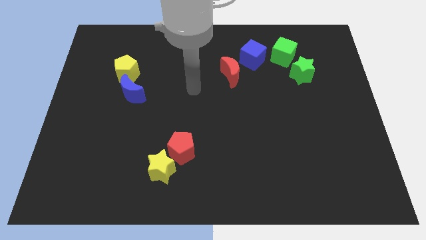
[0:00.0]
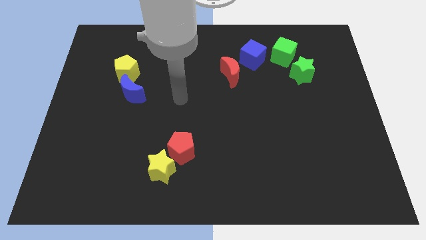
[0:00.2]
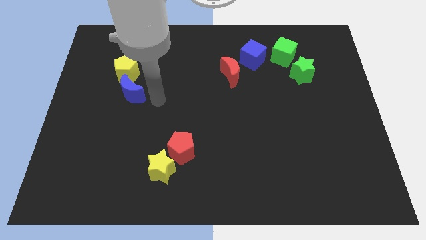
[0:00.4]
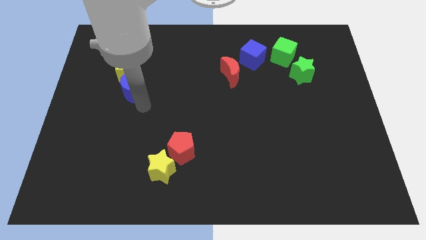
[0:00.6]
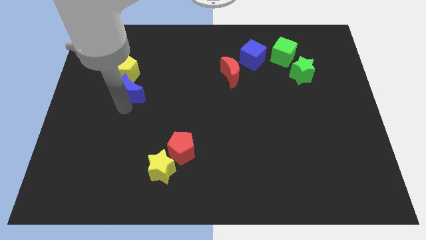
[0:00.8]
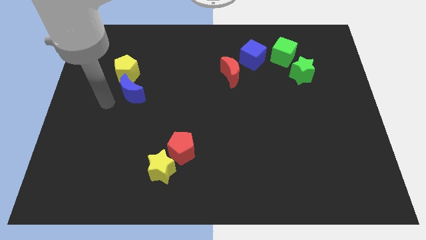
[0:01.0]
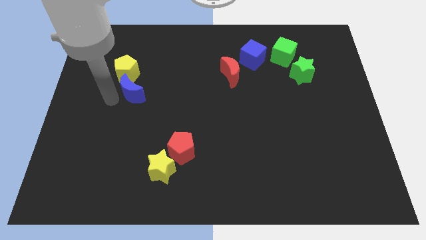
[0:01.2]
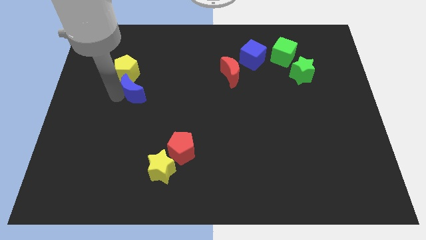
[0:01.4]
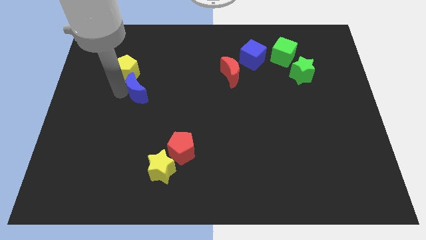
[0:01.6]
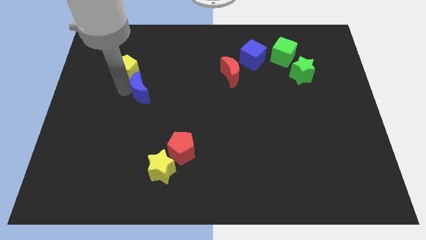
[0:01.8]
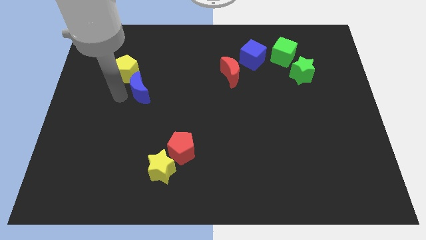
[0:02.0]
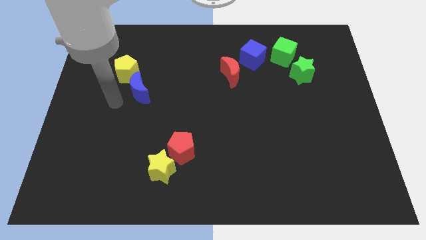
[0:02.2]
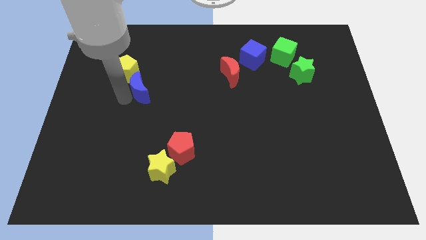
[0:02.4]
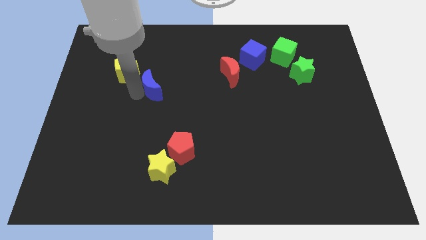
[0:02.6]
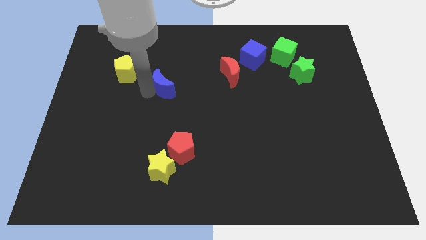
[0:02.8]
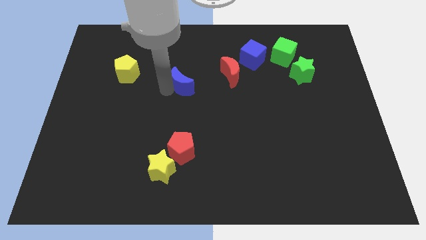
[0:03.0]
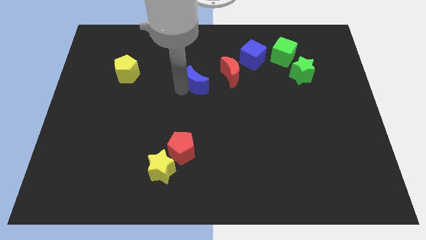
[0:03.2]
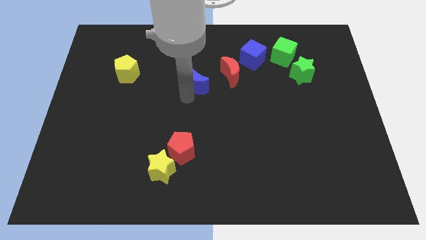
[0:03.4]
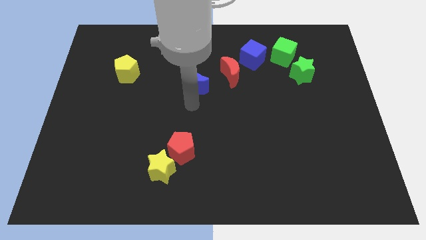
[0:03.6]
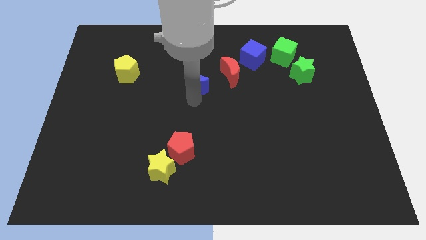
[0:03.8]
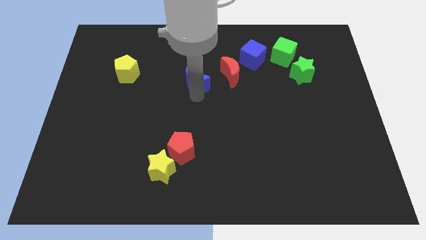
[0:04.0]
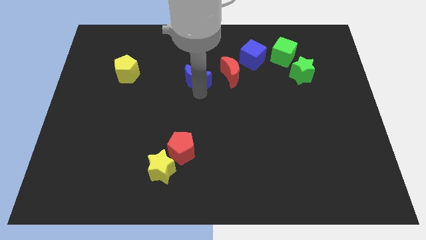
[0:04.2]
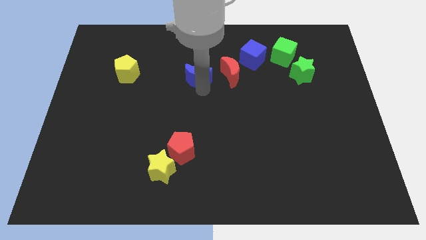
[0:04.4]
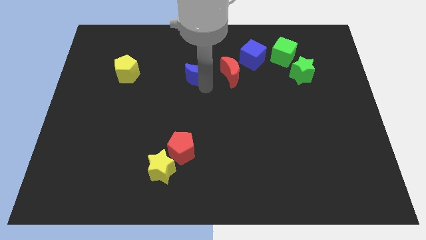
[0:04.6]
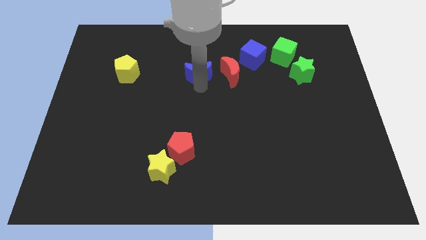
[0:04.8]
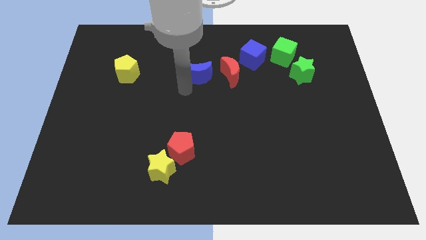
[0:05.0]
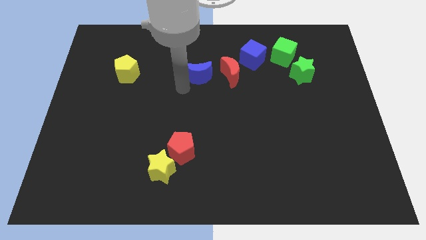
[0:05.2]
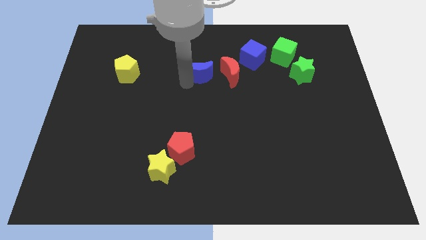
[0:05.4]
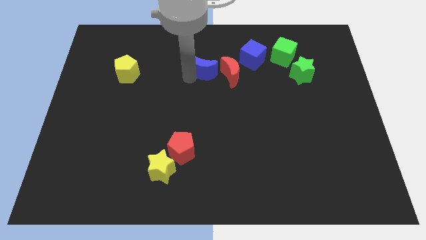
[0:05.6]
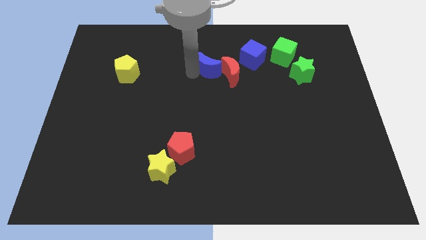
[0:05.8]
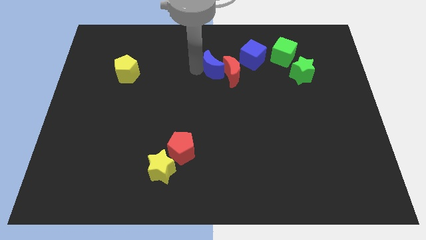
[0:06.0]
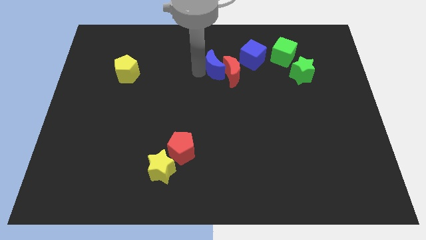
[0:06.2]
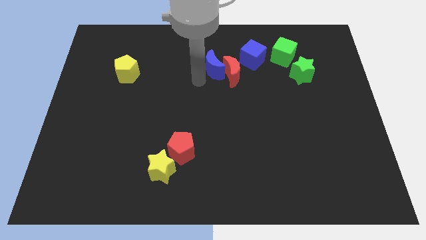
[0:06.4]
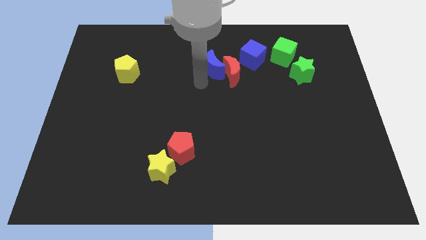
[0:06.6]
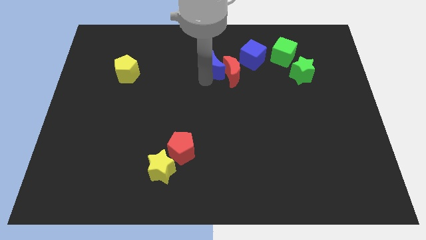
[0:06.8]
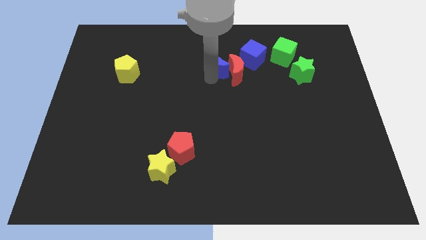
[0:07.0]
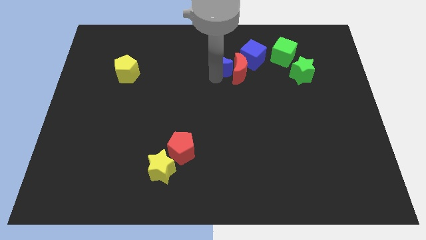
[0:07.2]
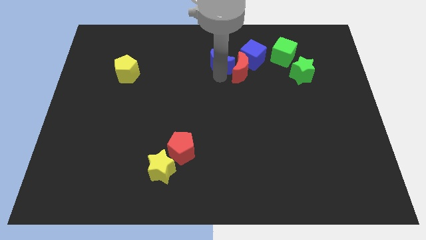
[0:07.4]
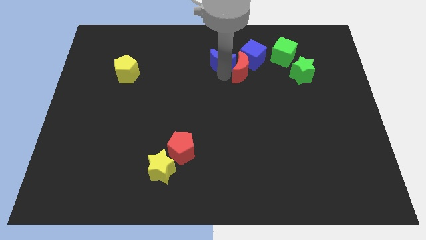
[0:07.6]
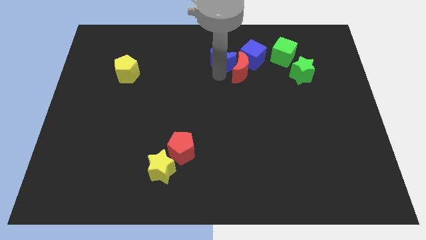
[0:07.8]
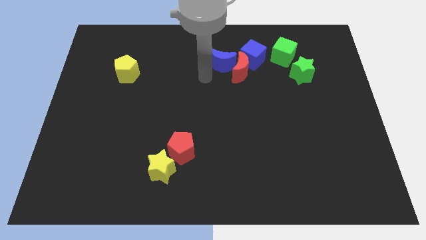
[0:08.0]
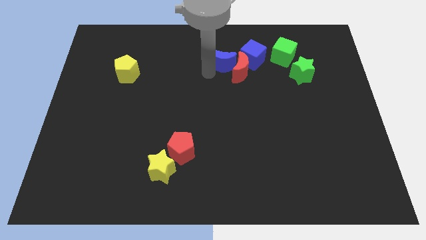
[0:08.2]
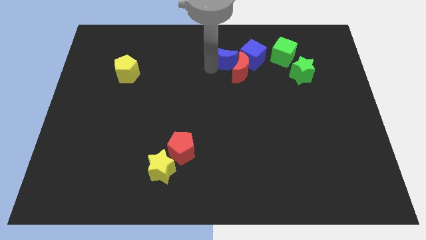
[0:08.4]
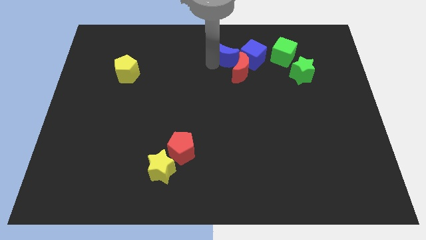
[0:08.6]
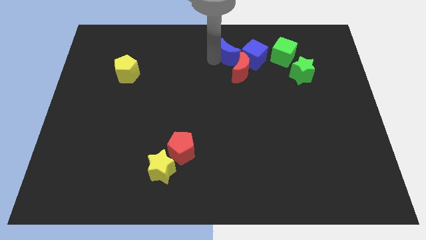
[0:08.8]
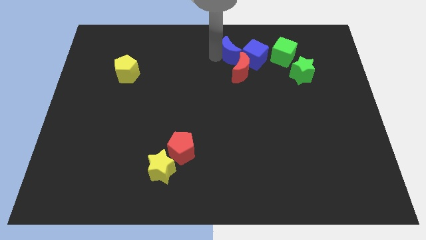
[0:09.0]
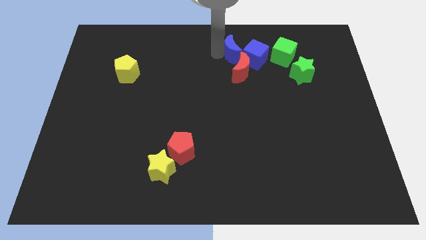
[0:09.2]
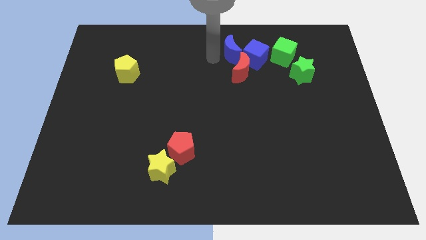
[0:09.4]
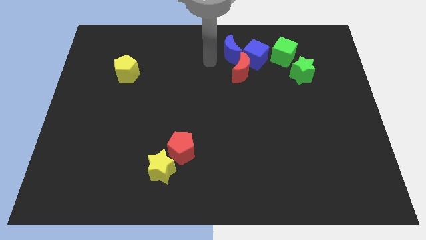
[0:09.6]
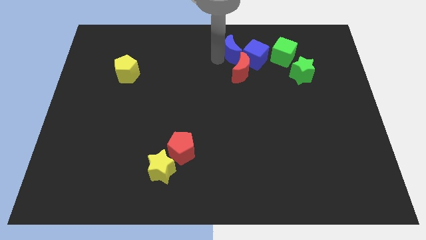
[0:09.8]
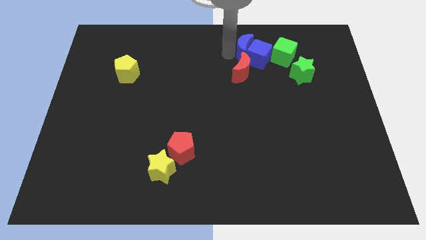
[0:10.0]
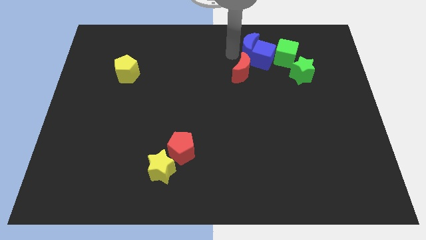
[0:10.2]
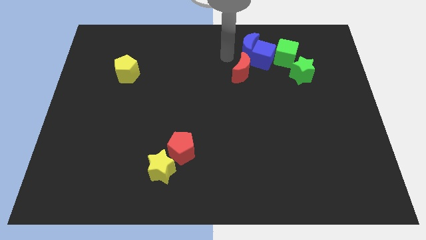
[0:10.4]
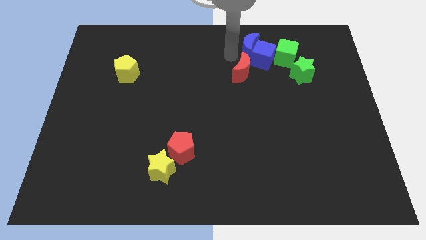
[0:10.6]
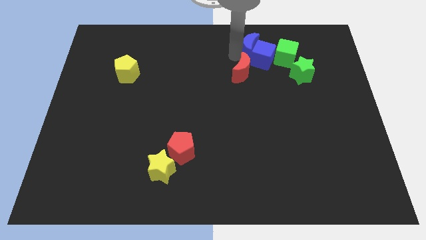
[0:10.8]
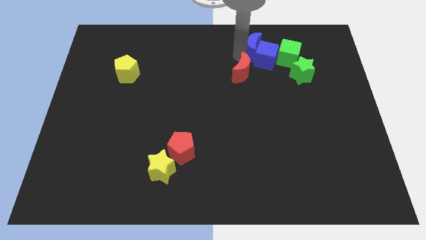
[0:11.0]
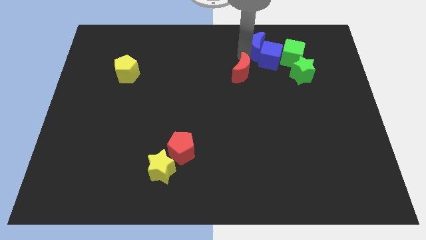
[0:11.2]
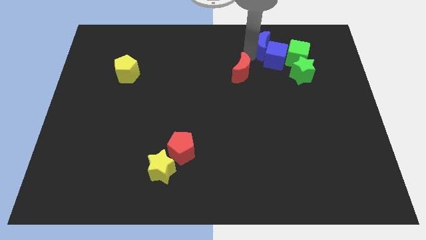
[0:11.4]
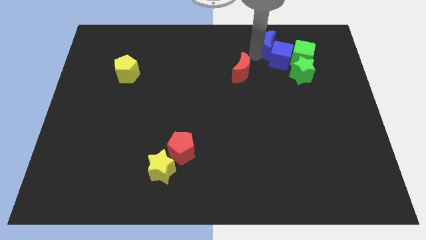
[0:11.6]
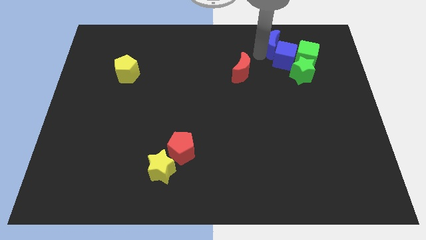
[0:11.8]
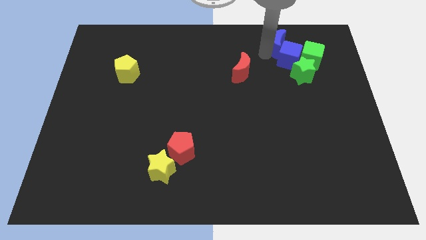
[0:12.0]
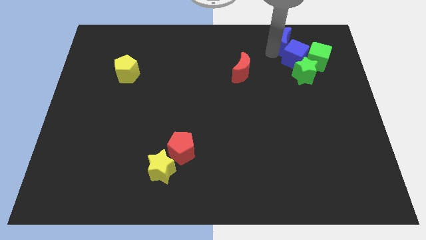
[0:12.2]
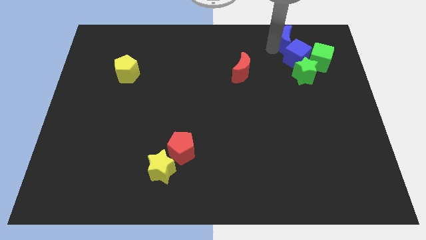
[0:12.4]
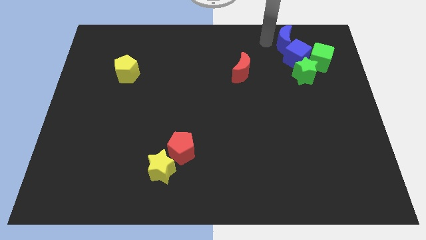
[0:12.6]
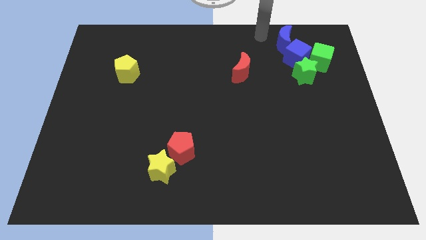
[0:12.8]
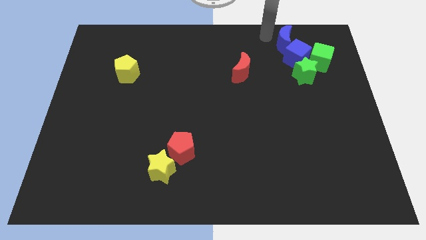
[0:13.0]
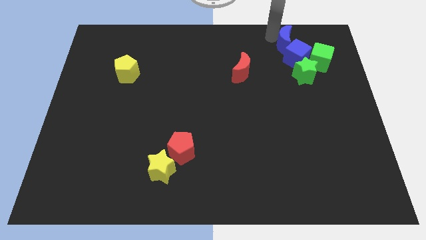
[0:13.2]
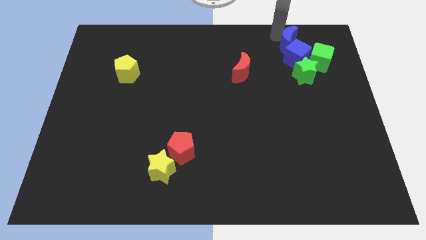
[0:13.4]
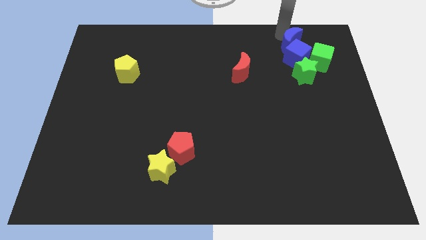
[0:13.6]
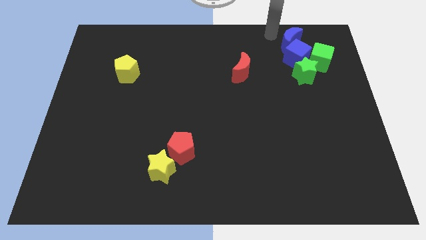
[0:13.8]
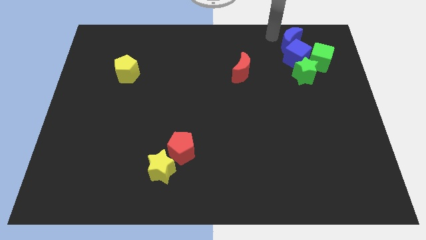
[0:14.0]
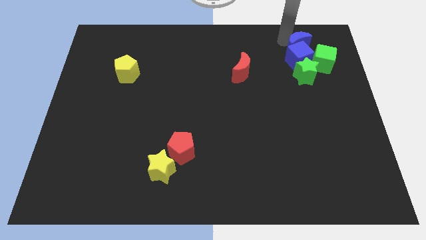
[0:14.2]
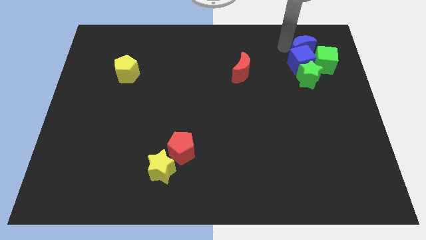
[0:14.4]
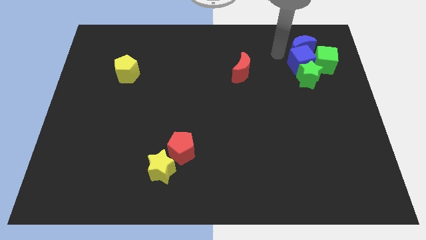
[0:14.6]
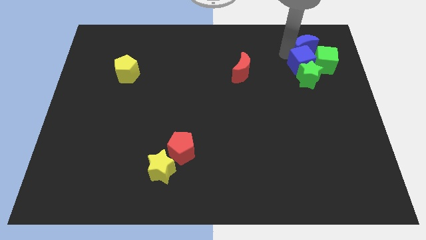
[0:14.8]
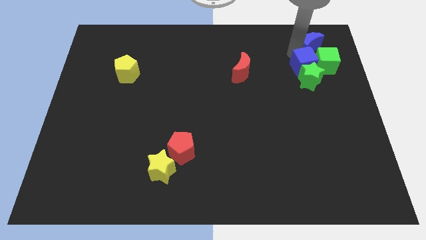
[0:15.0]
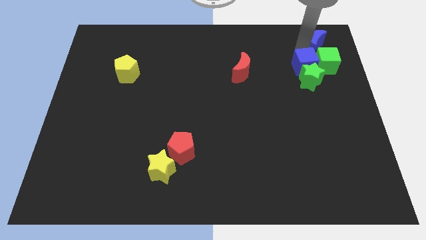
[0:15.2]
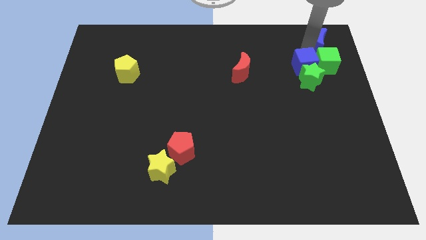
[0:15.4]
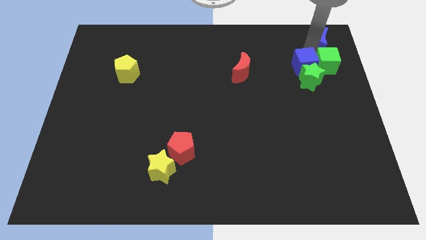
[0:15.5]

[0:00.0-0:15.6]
move the blue moon to the upper right corner
